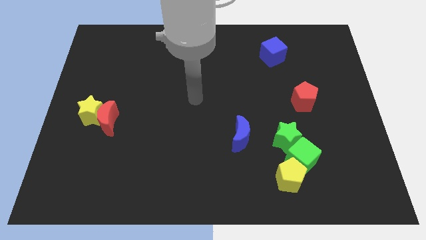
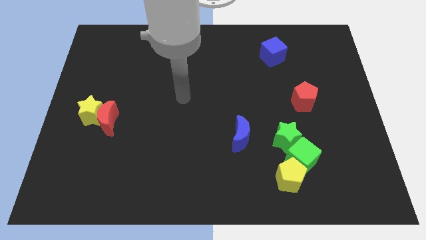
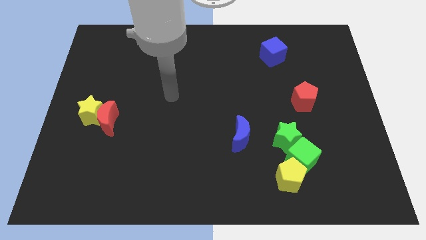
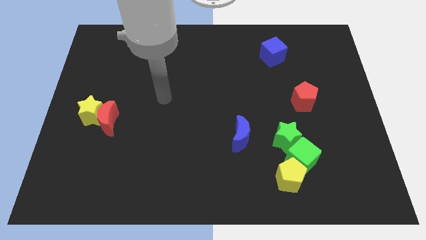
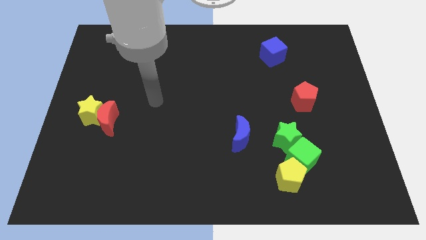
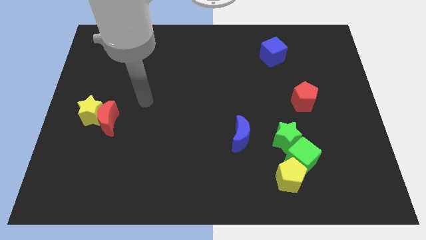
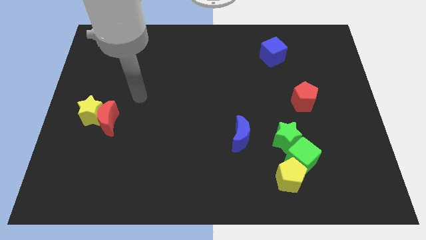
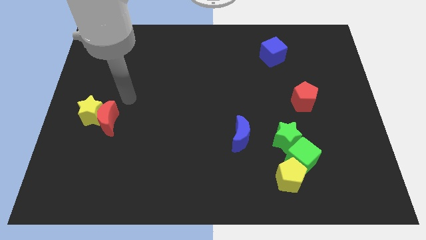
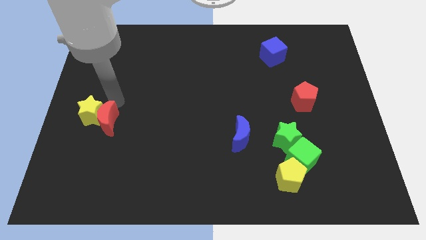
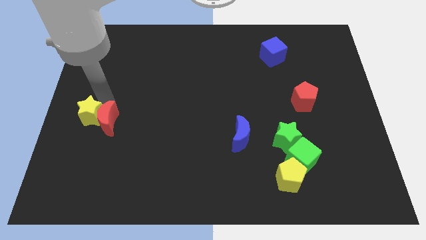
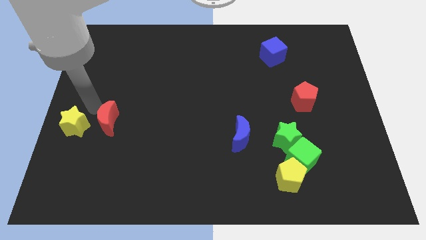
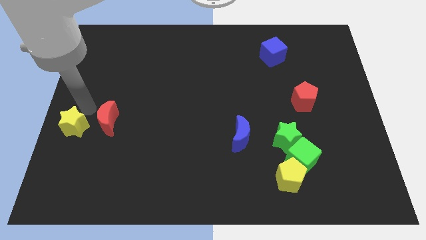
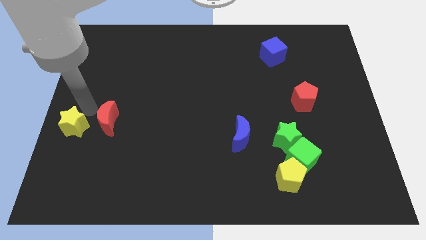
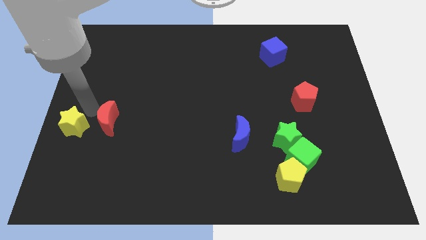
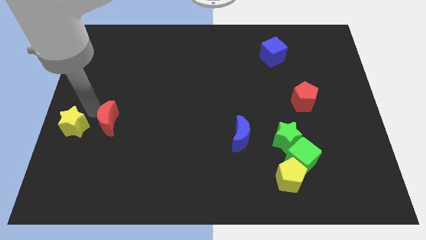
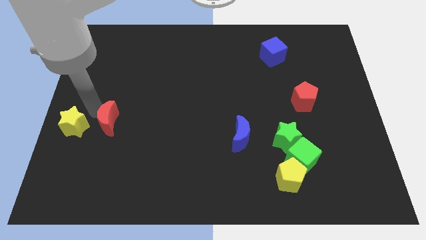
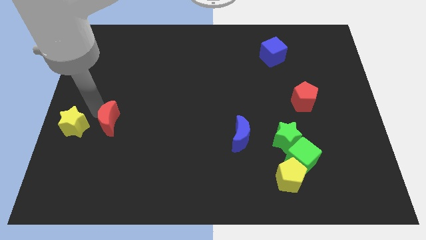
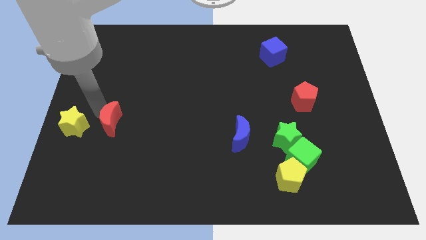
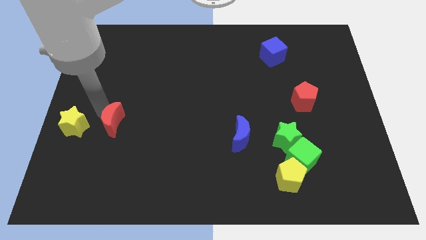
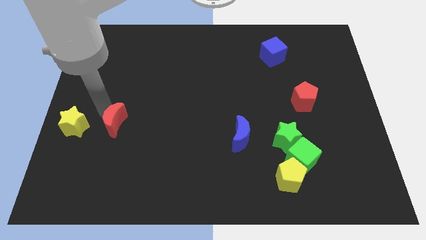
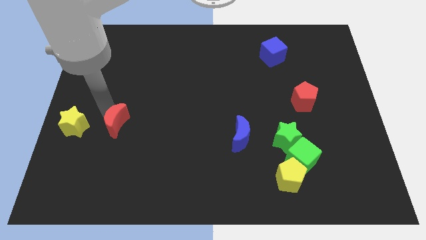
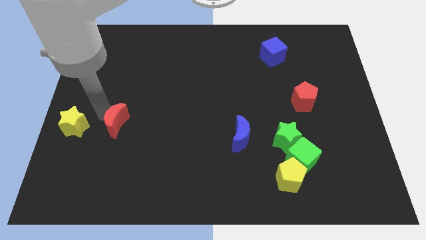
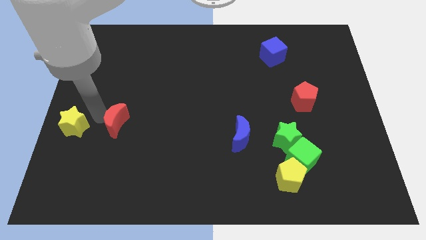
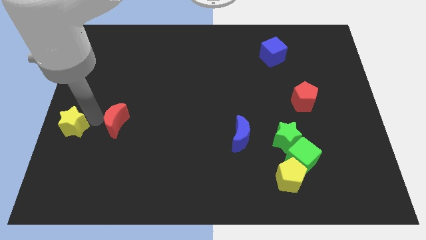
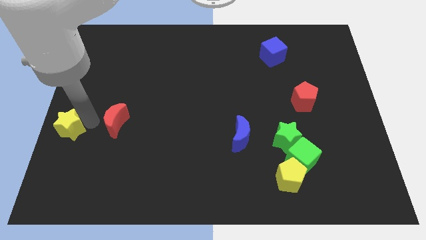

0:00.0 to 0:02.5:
separate the red moon from the yellow star

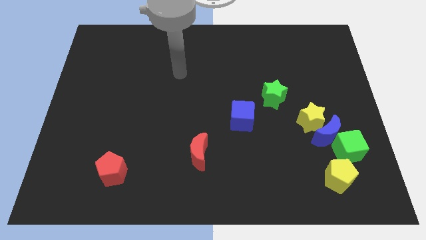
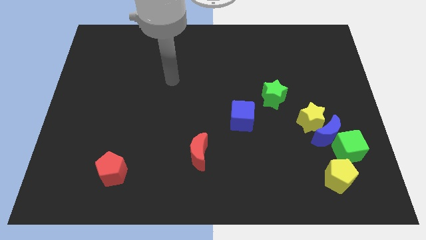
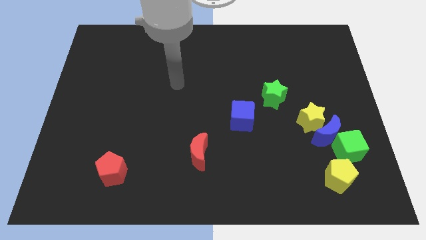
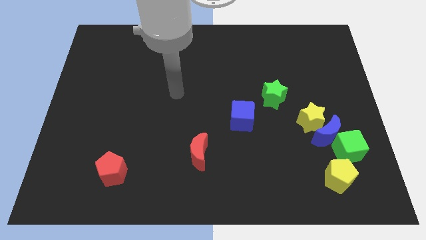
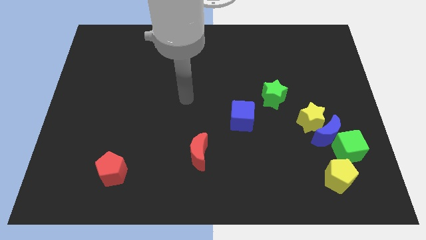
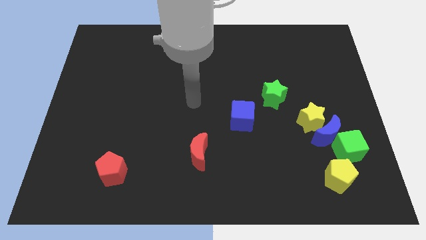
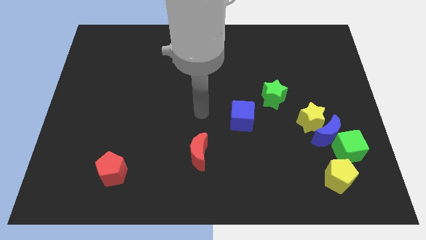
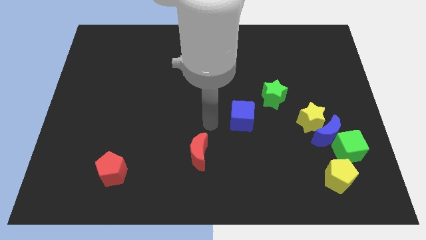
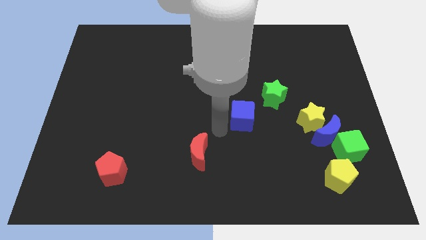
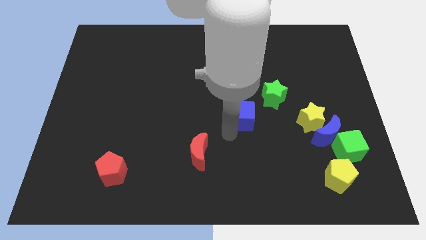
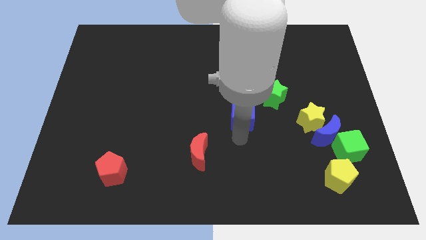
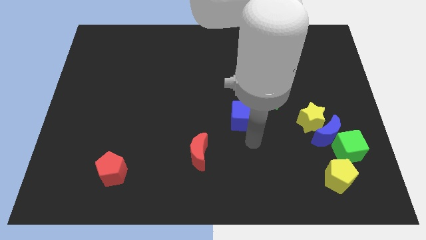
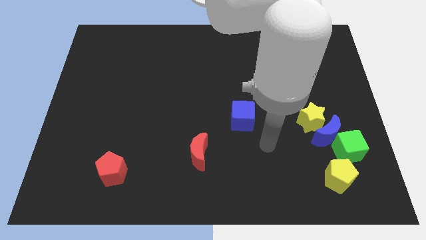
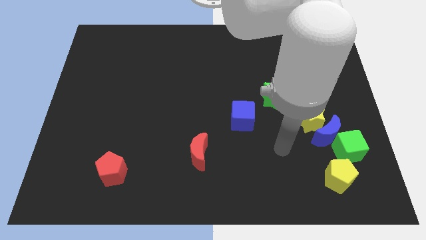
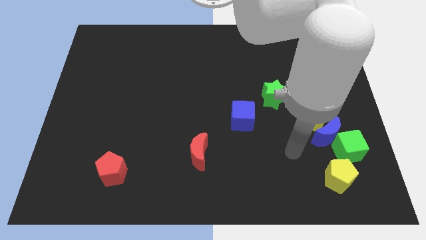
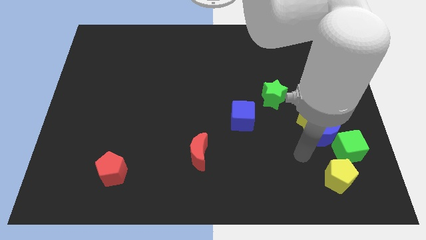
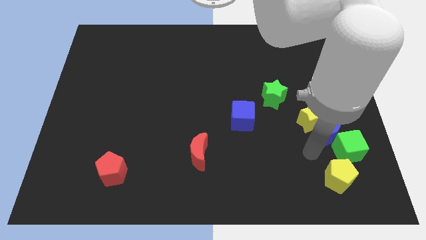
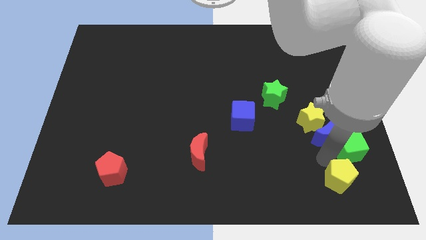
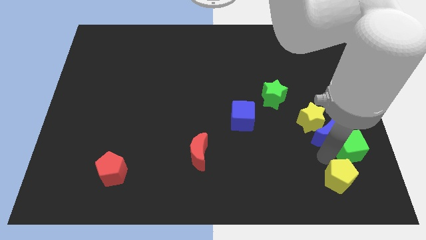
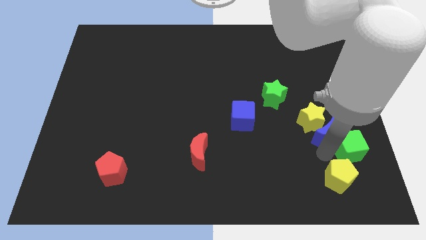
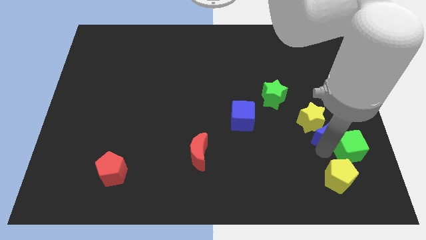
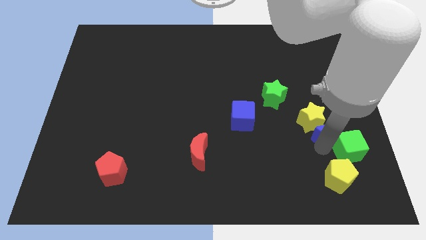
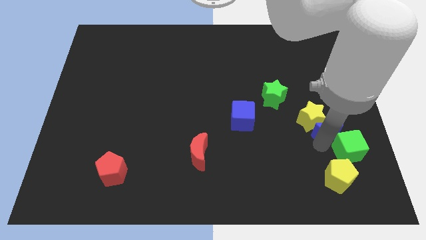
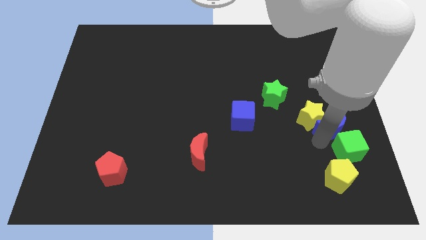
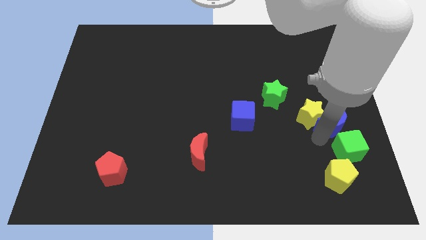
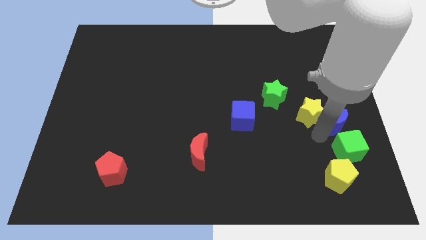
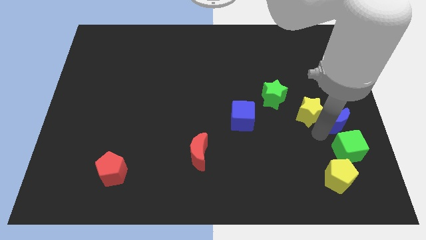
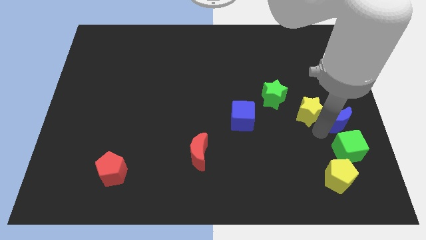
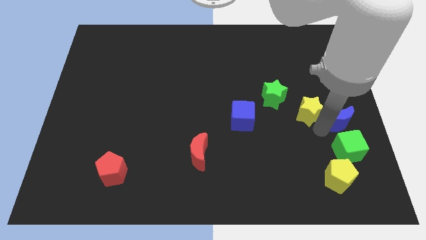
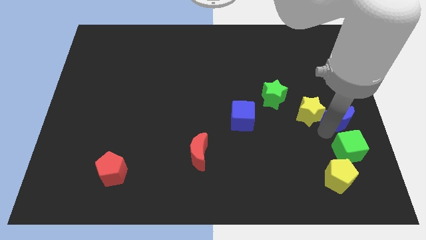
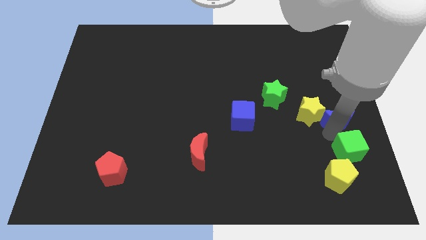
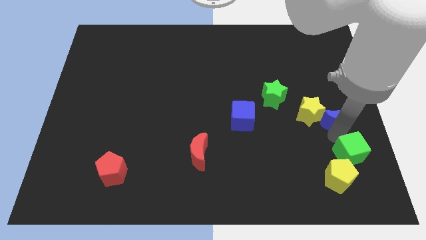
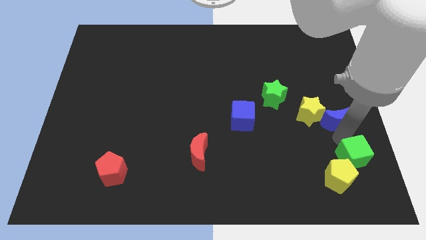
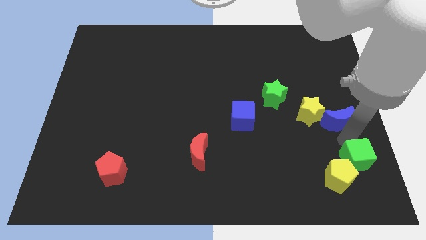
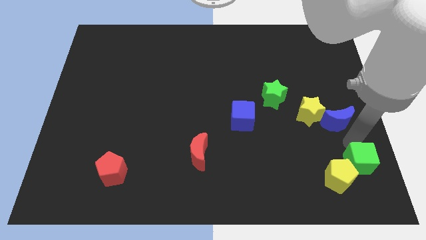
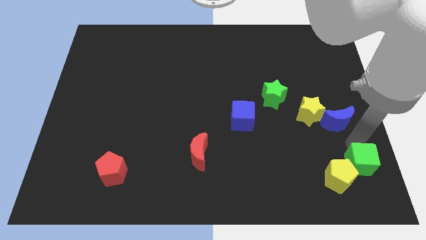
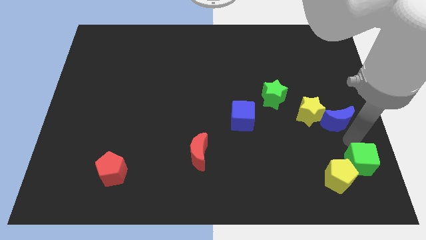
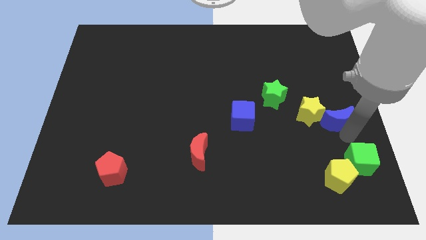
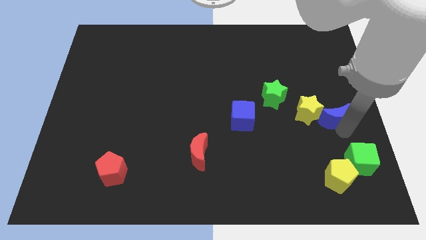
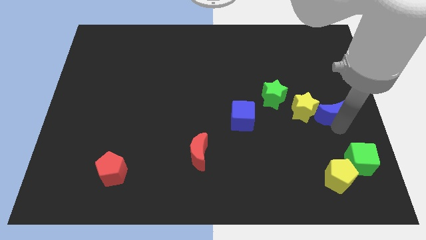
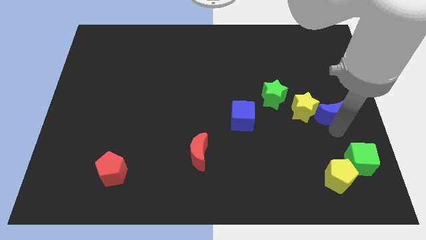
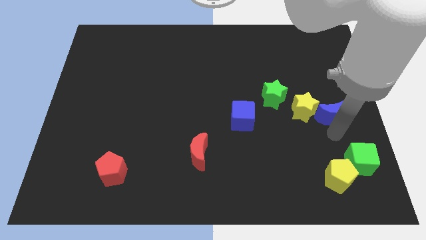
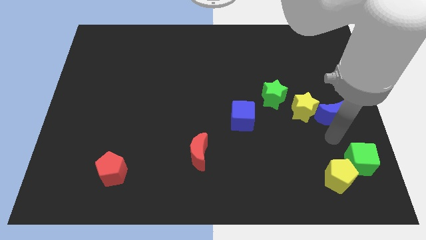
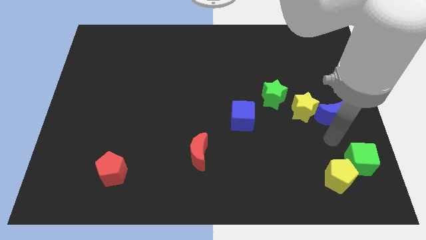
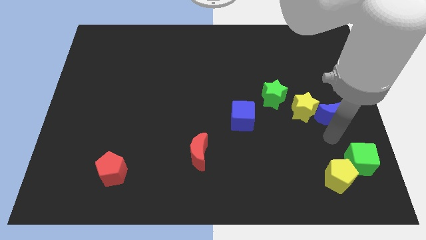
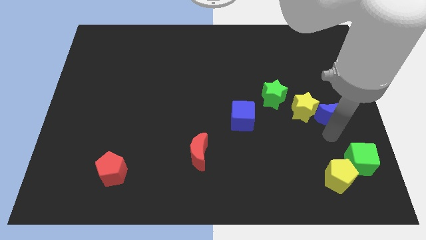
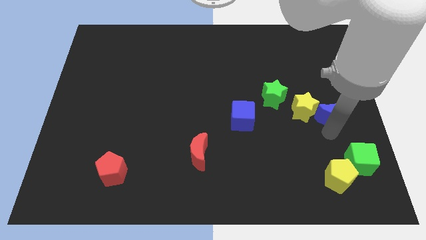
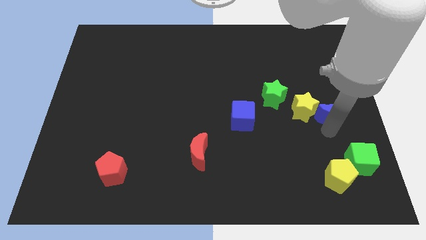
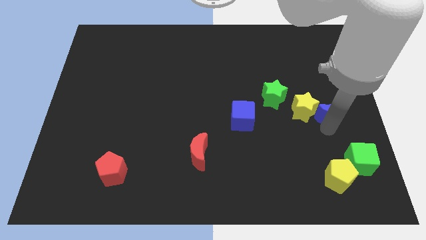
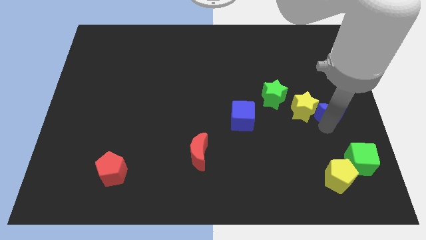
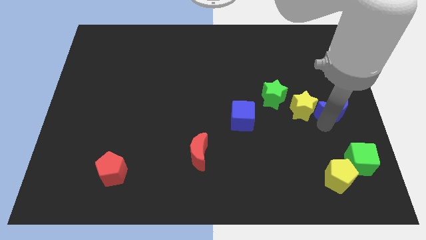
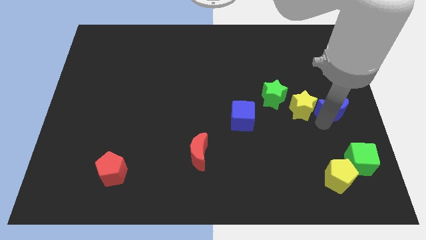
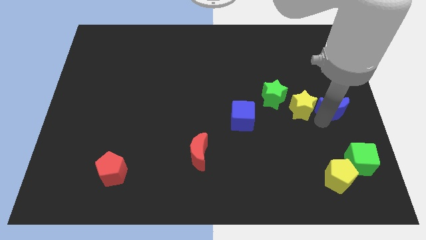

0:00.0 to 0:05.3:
separate the blue moon from the yellow star, green cube, and yellow pentagon

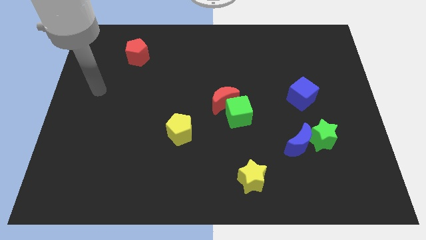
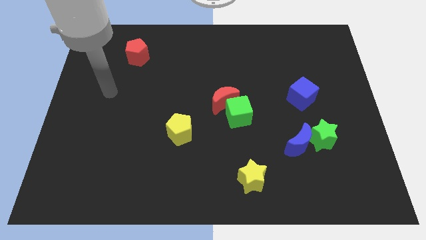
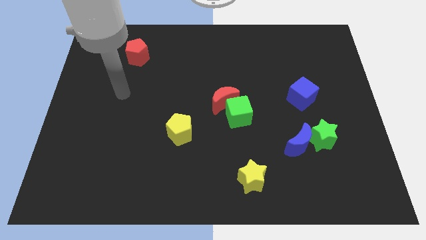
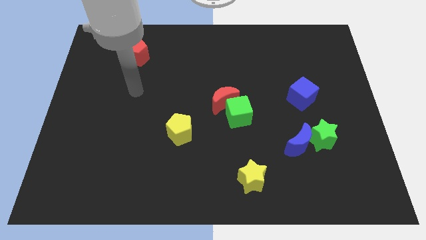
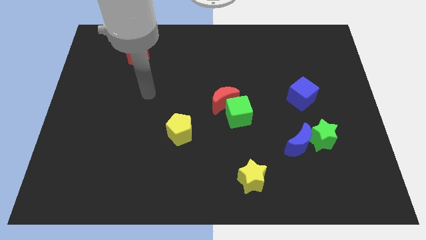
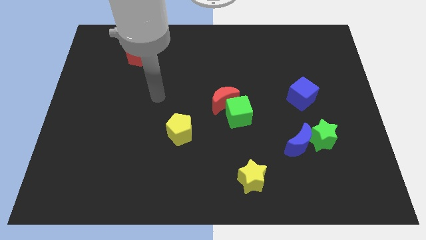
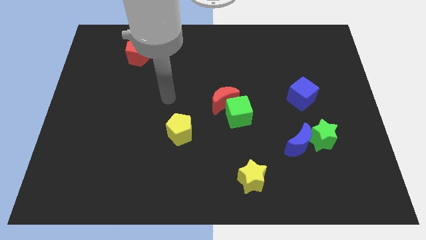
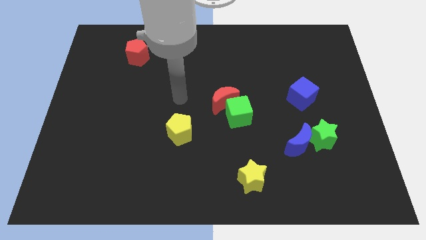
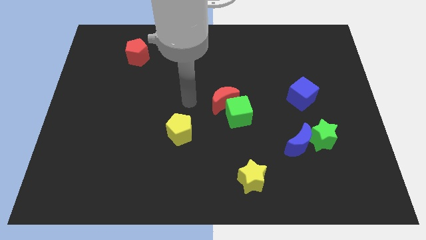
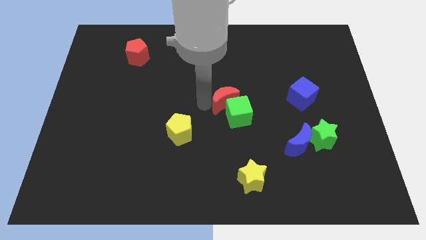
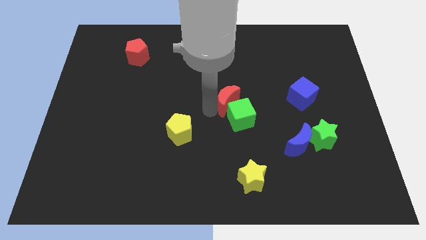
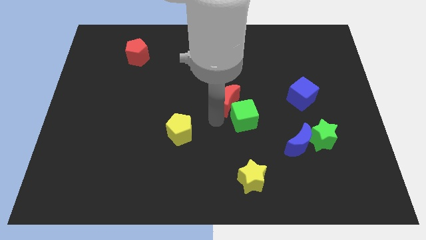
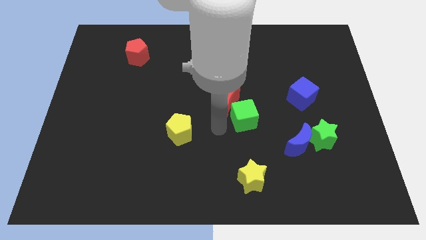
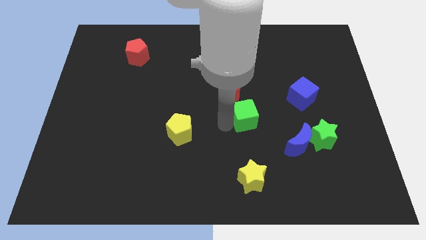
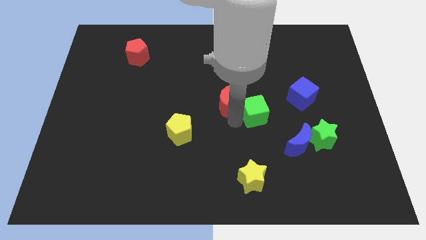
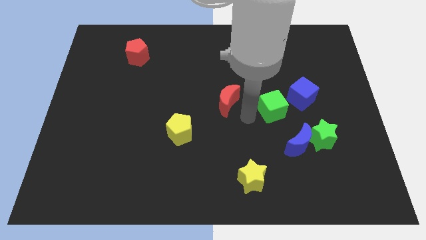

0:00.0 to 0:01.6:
separate the red moon from the green cube
